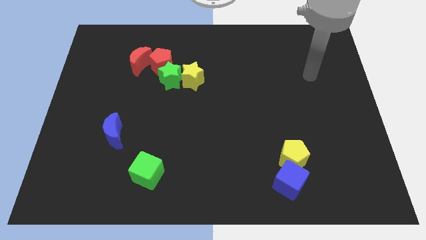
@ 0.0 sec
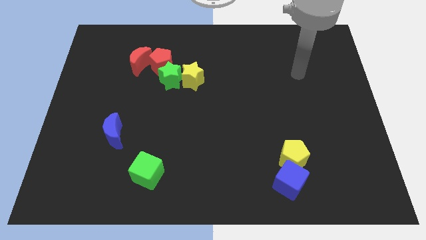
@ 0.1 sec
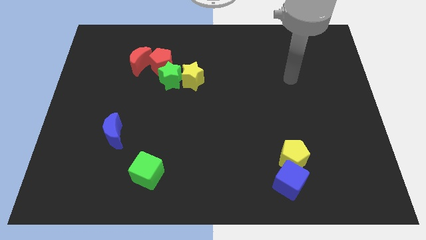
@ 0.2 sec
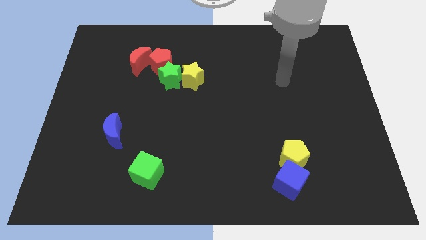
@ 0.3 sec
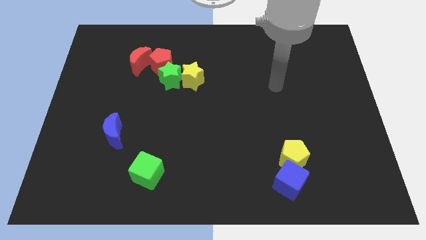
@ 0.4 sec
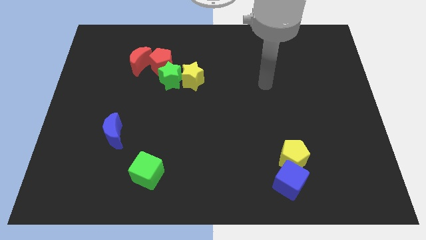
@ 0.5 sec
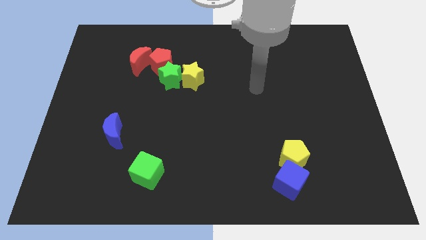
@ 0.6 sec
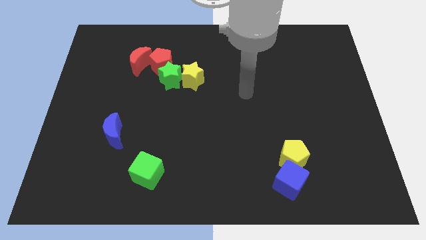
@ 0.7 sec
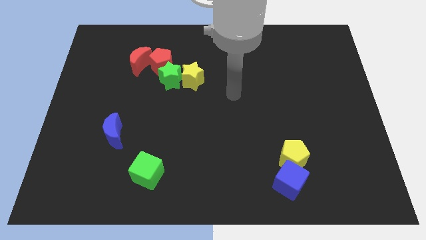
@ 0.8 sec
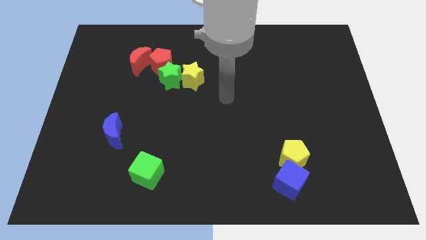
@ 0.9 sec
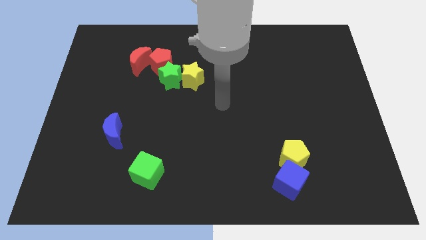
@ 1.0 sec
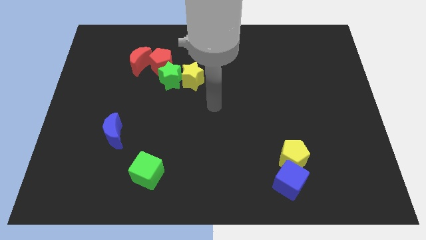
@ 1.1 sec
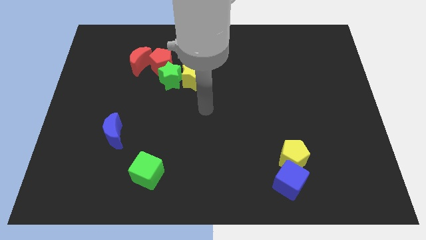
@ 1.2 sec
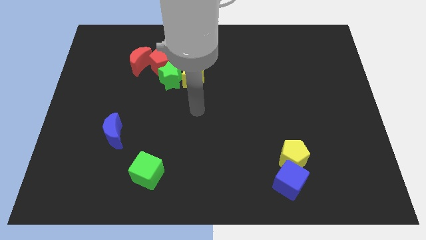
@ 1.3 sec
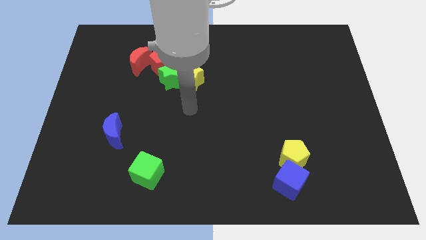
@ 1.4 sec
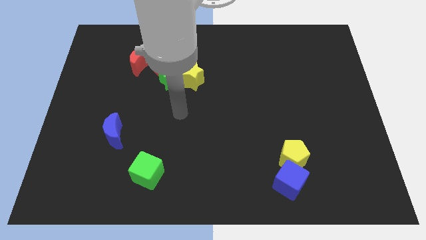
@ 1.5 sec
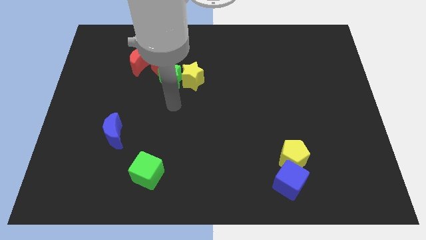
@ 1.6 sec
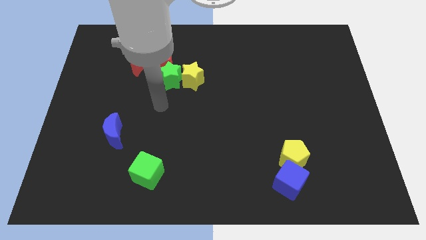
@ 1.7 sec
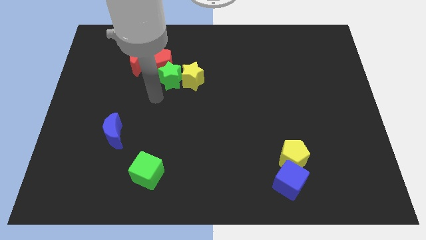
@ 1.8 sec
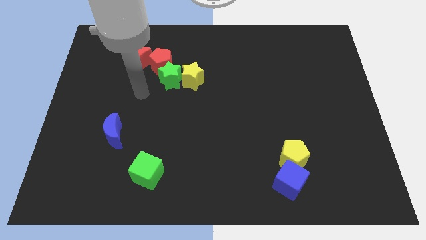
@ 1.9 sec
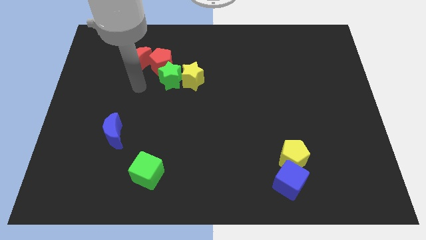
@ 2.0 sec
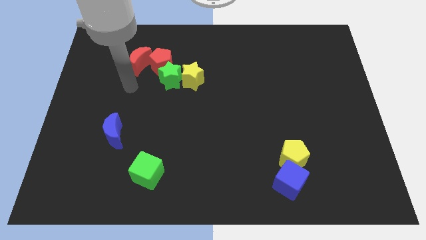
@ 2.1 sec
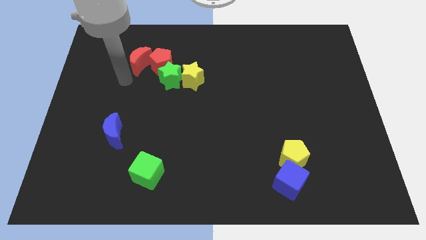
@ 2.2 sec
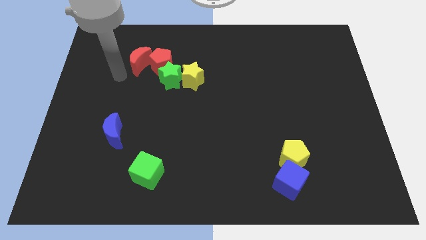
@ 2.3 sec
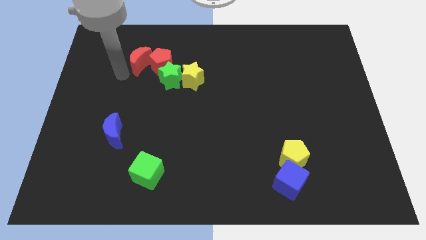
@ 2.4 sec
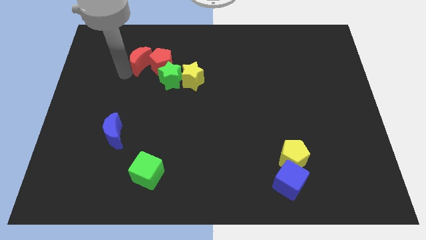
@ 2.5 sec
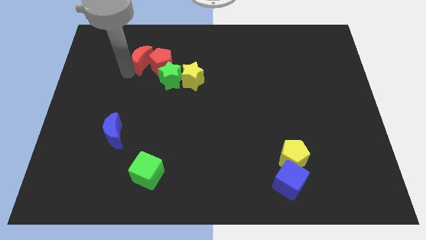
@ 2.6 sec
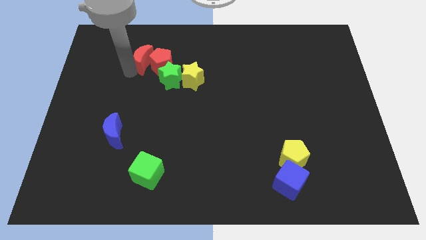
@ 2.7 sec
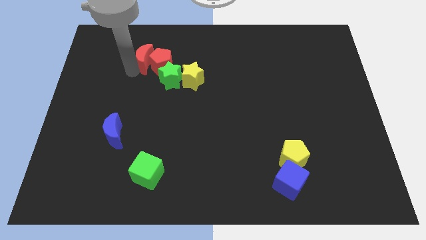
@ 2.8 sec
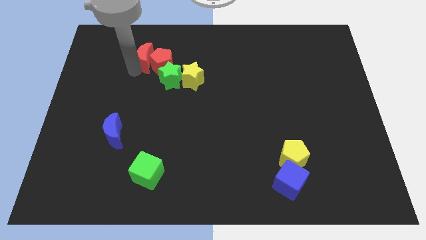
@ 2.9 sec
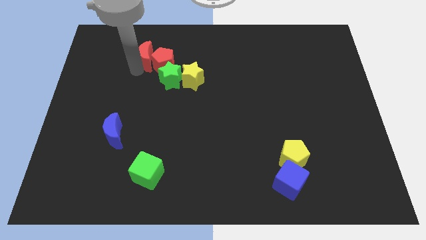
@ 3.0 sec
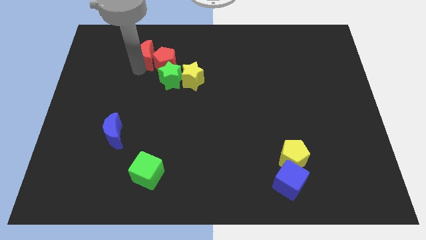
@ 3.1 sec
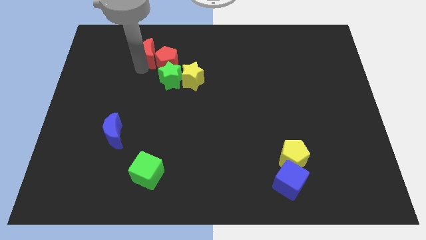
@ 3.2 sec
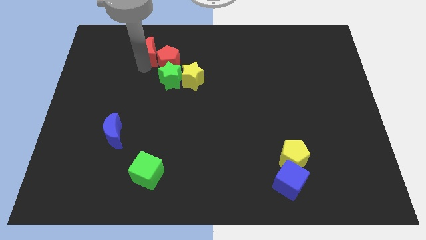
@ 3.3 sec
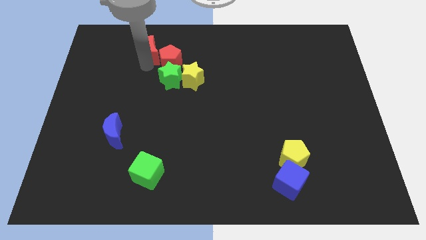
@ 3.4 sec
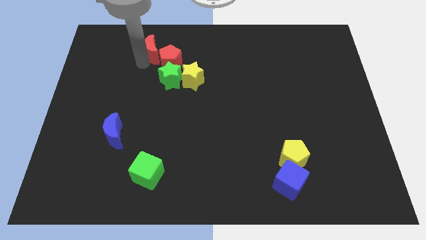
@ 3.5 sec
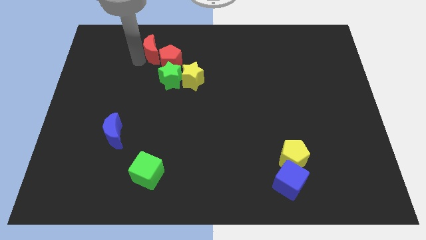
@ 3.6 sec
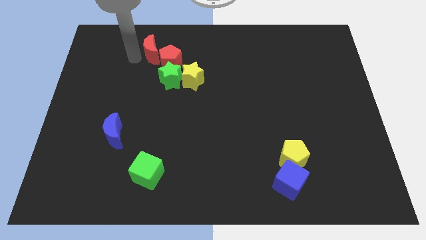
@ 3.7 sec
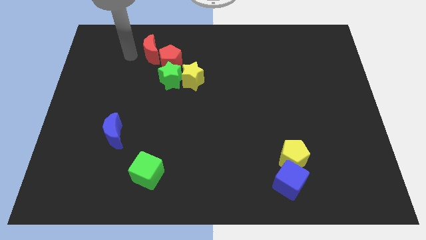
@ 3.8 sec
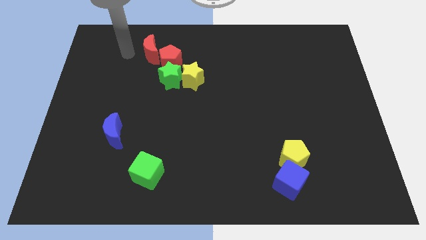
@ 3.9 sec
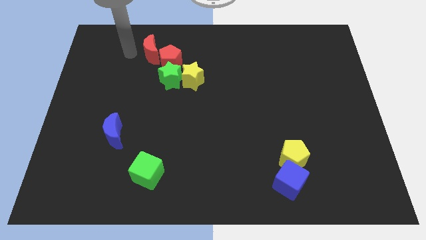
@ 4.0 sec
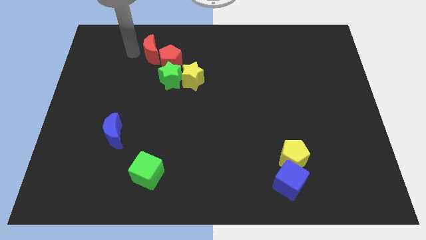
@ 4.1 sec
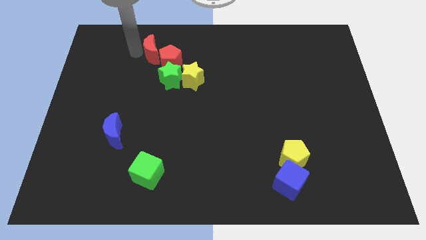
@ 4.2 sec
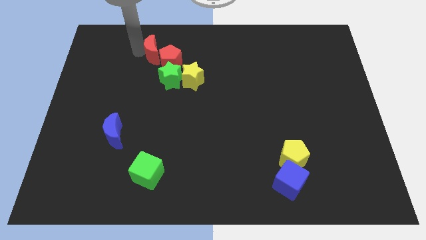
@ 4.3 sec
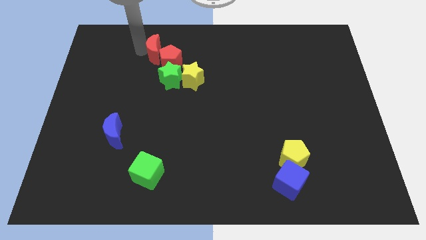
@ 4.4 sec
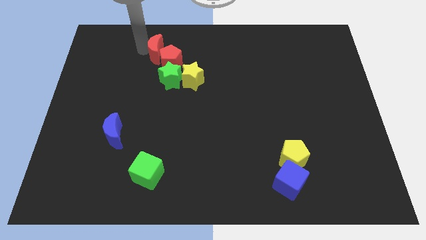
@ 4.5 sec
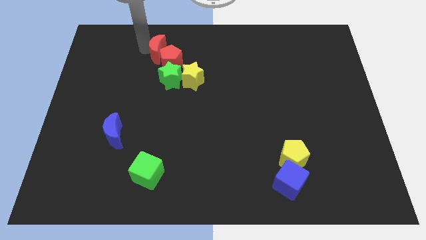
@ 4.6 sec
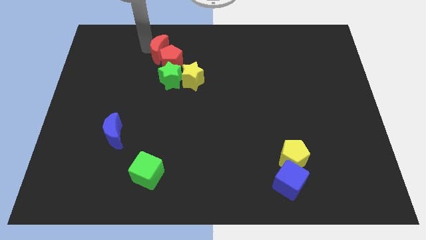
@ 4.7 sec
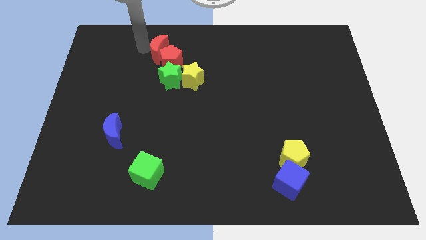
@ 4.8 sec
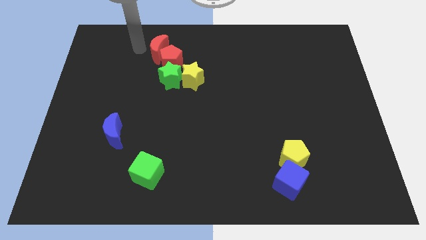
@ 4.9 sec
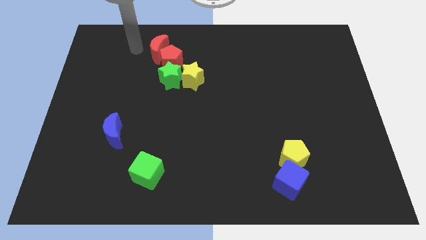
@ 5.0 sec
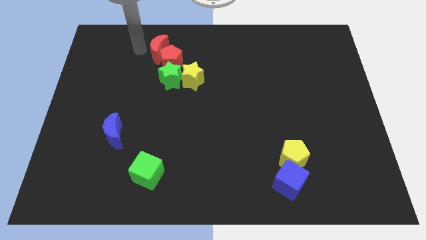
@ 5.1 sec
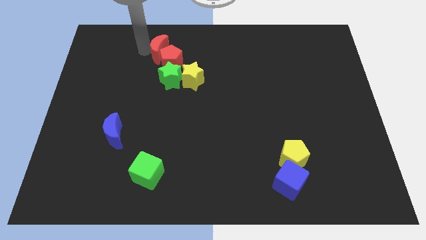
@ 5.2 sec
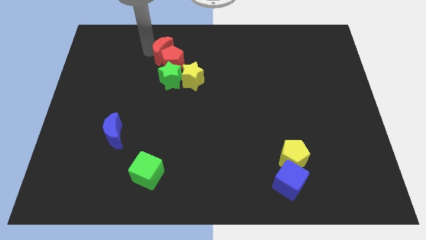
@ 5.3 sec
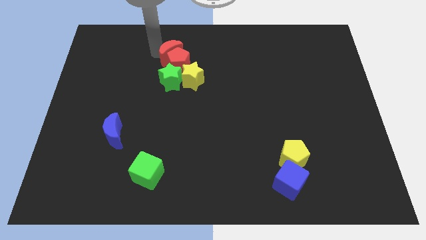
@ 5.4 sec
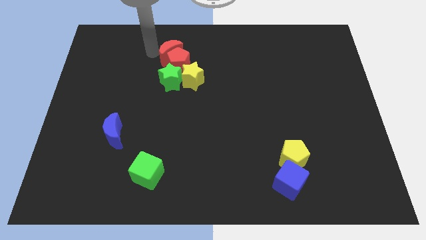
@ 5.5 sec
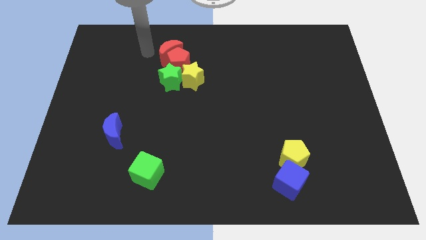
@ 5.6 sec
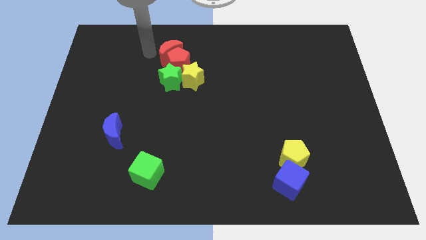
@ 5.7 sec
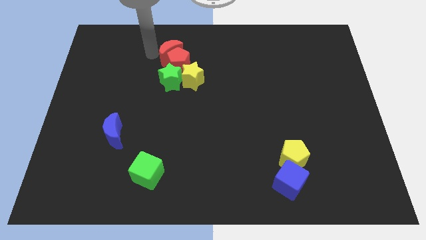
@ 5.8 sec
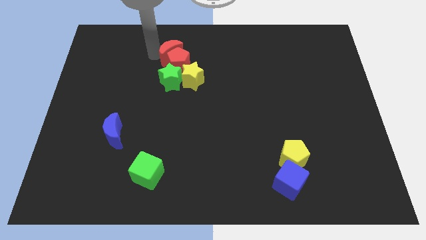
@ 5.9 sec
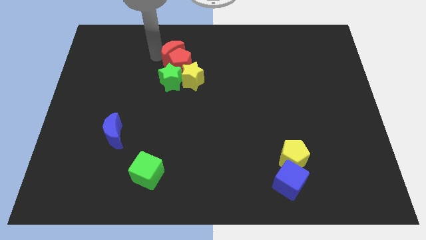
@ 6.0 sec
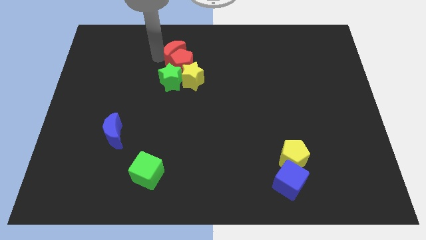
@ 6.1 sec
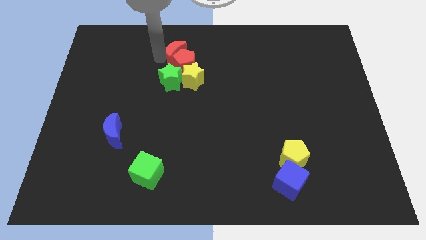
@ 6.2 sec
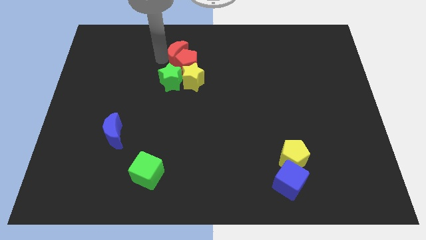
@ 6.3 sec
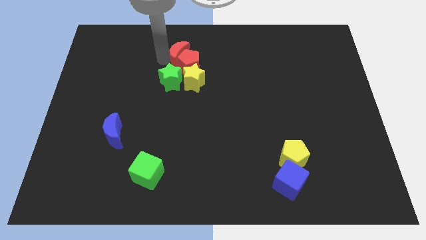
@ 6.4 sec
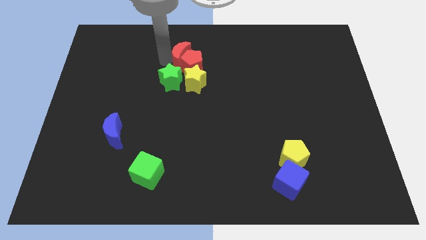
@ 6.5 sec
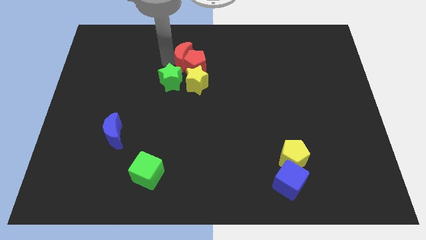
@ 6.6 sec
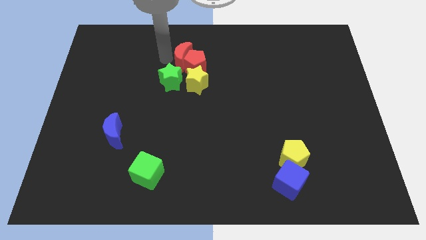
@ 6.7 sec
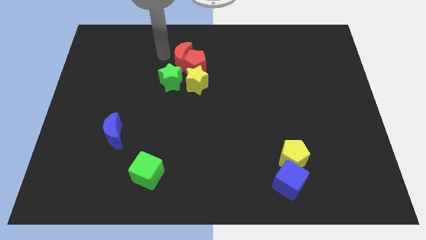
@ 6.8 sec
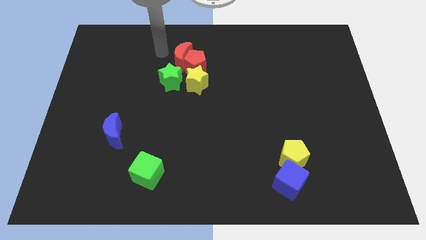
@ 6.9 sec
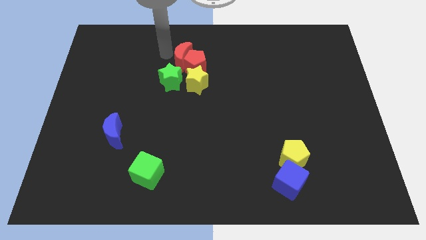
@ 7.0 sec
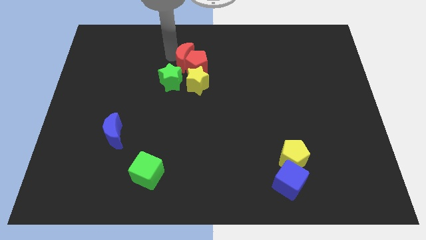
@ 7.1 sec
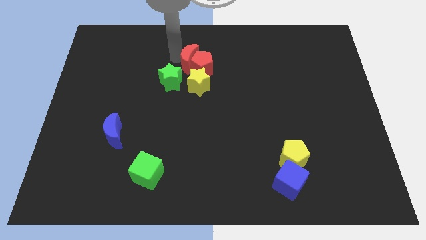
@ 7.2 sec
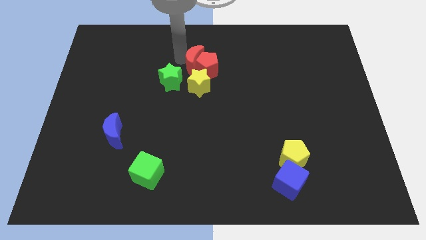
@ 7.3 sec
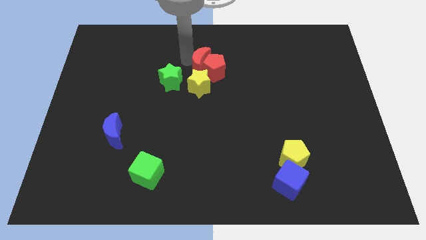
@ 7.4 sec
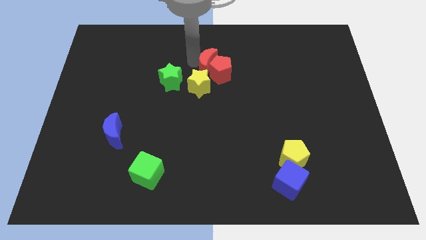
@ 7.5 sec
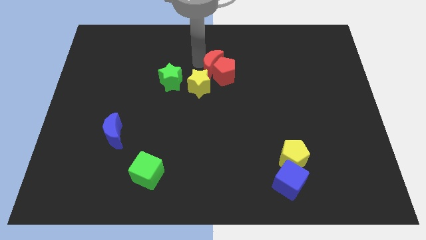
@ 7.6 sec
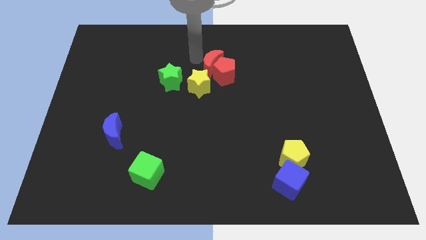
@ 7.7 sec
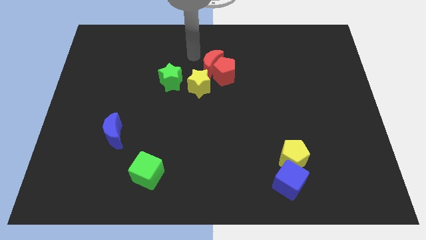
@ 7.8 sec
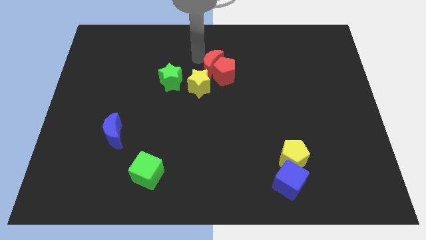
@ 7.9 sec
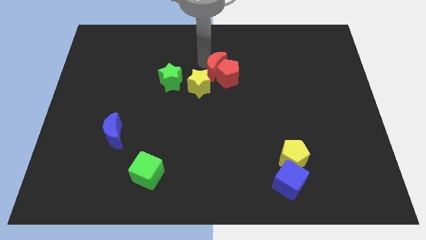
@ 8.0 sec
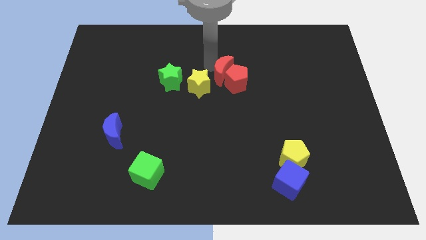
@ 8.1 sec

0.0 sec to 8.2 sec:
push the red moon right of the yellow star
